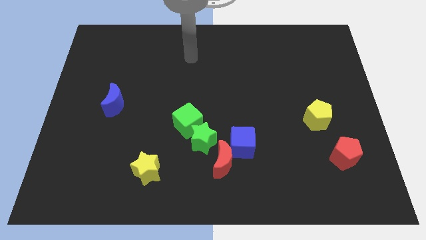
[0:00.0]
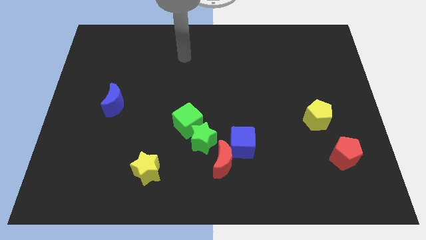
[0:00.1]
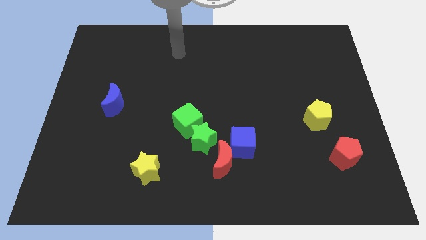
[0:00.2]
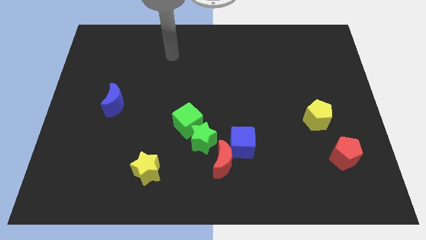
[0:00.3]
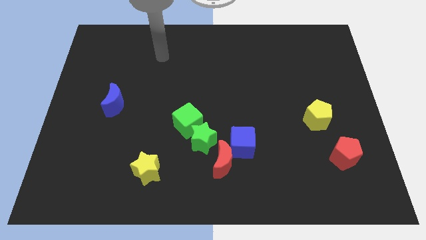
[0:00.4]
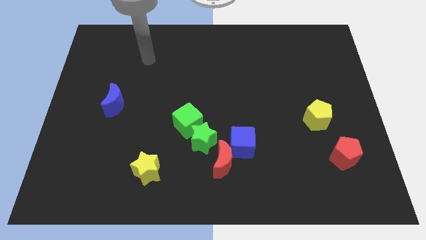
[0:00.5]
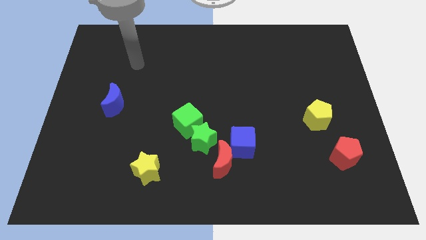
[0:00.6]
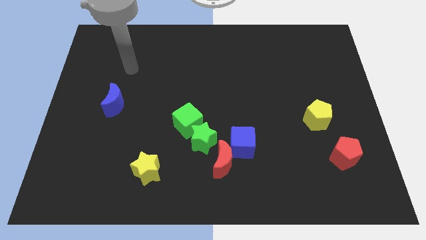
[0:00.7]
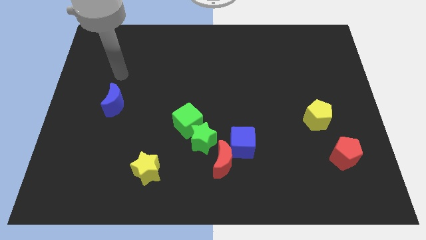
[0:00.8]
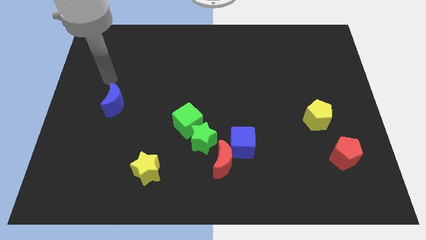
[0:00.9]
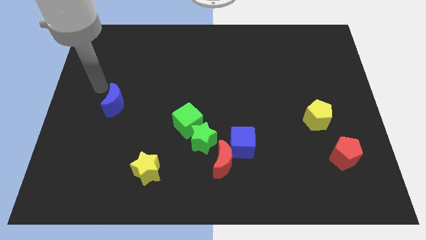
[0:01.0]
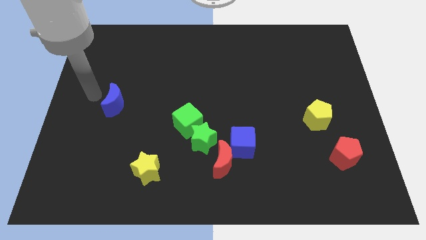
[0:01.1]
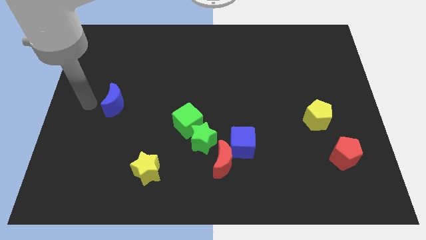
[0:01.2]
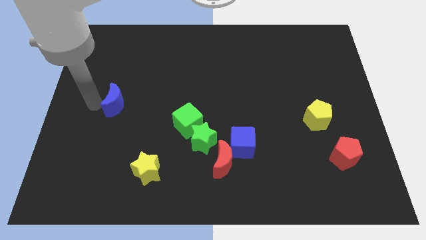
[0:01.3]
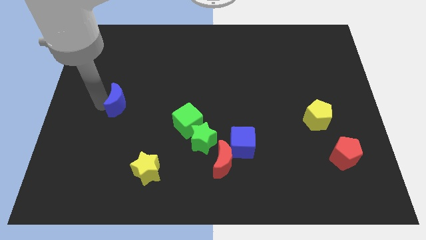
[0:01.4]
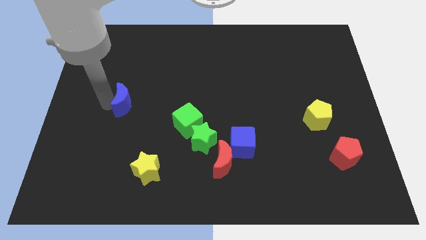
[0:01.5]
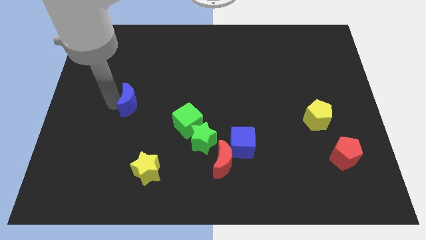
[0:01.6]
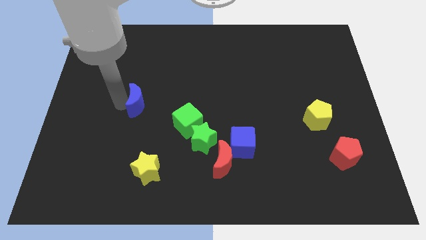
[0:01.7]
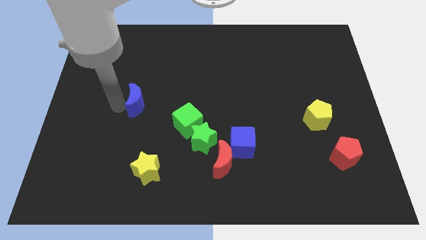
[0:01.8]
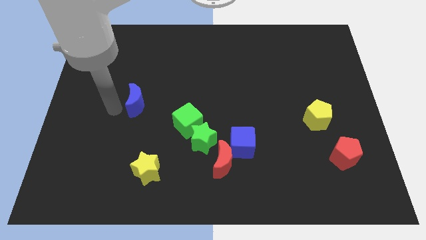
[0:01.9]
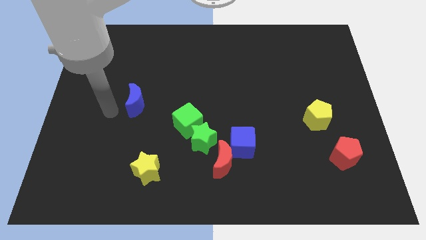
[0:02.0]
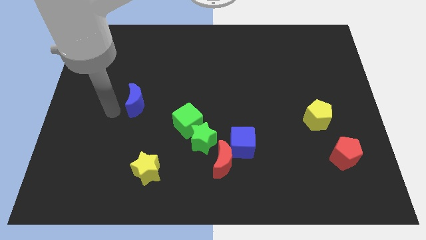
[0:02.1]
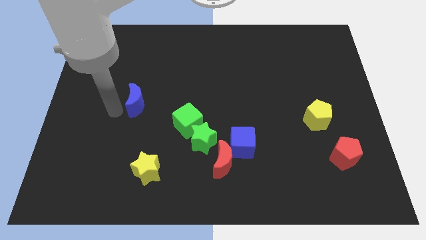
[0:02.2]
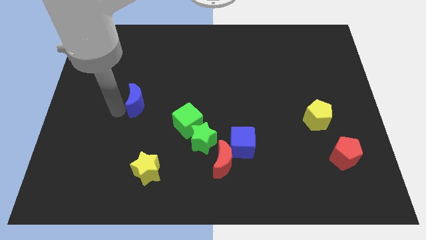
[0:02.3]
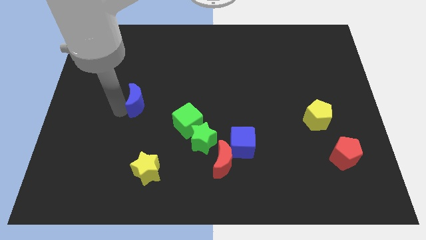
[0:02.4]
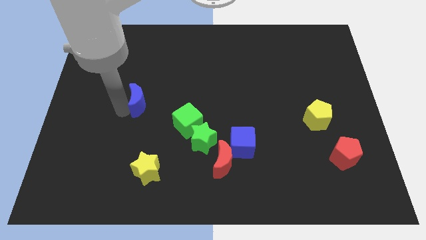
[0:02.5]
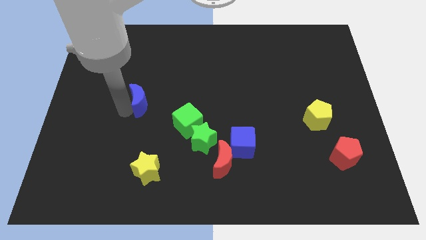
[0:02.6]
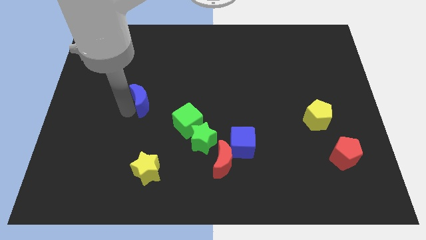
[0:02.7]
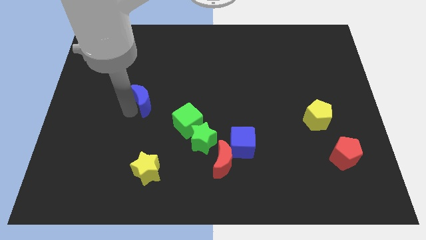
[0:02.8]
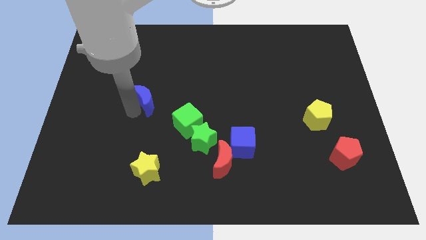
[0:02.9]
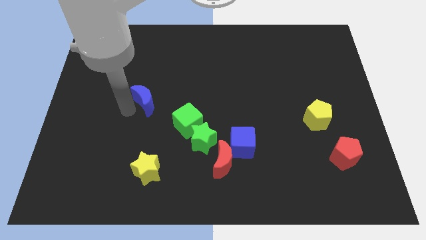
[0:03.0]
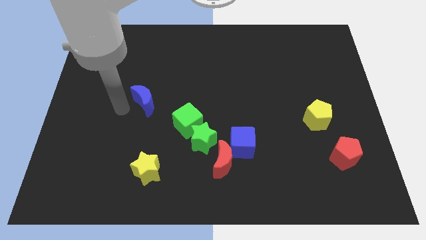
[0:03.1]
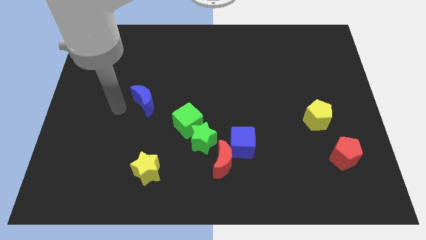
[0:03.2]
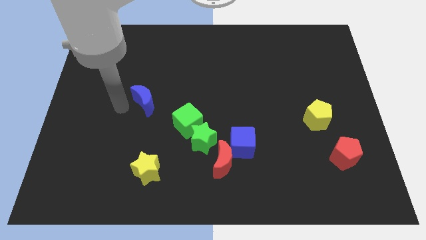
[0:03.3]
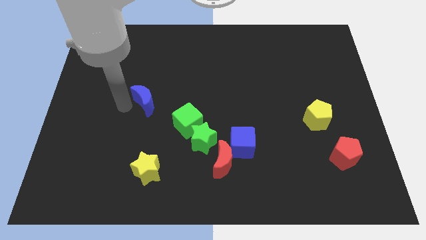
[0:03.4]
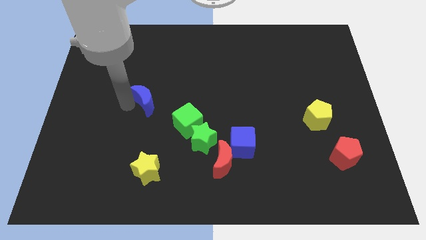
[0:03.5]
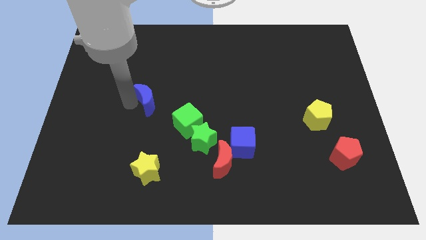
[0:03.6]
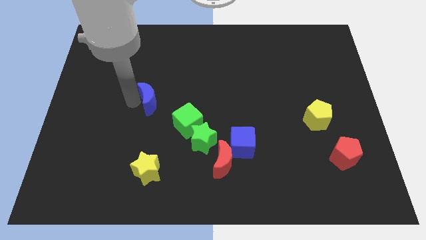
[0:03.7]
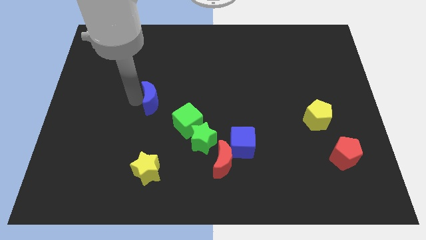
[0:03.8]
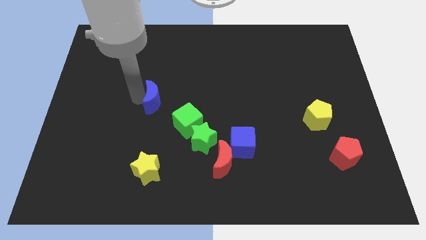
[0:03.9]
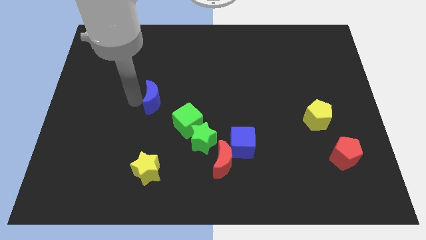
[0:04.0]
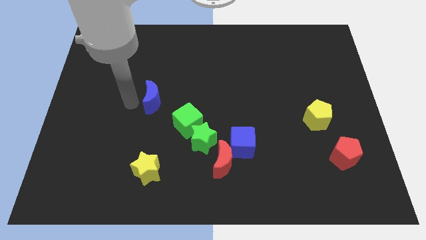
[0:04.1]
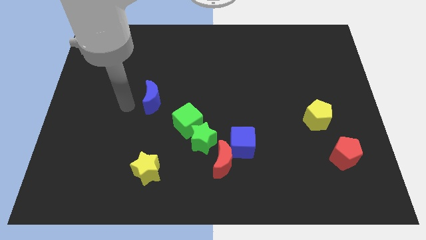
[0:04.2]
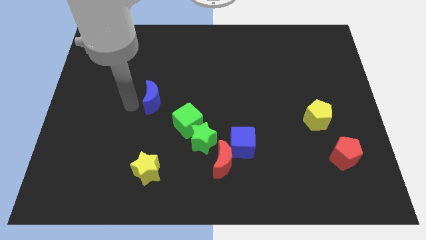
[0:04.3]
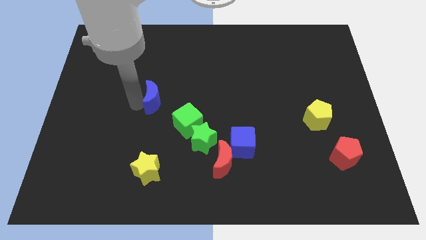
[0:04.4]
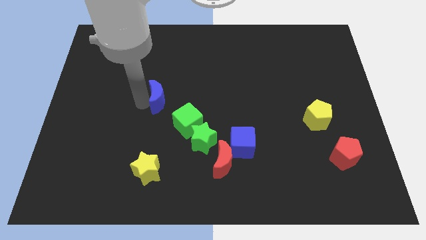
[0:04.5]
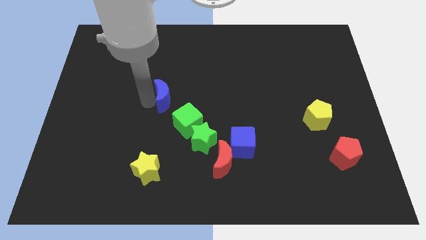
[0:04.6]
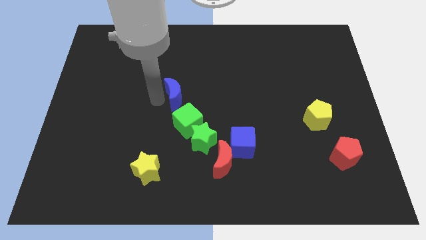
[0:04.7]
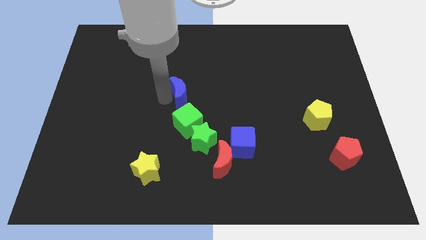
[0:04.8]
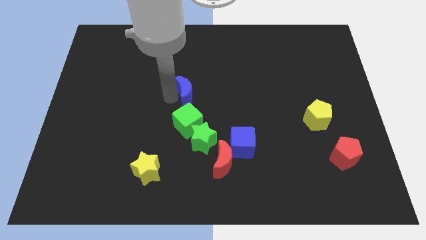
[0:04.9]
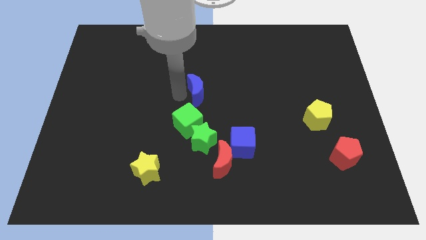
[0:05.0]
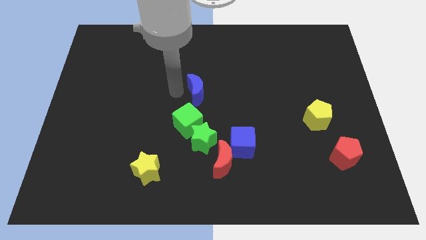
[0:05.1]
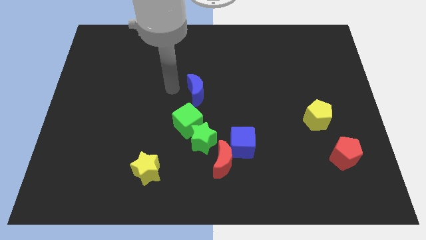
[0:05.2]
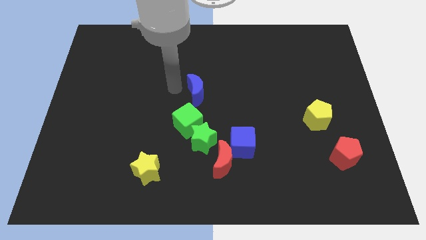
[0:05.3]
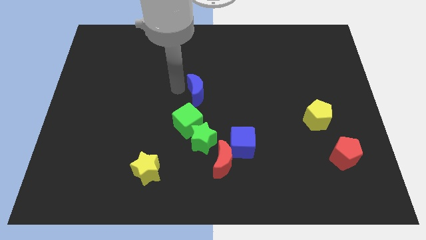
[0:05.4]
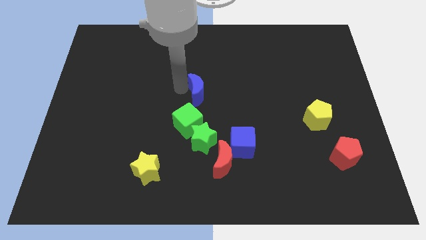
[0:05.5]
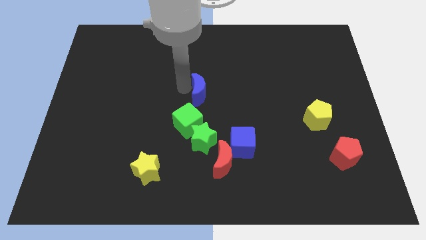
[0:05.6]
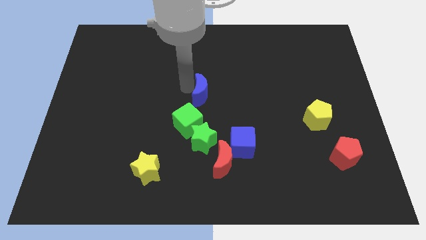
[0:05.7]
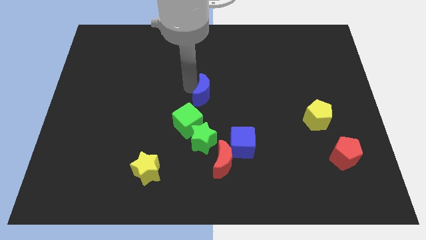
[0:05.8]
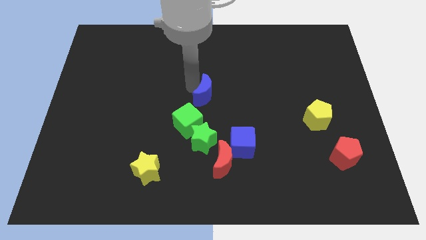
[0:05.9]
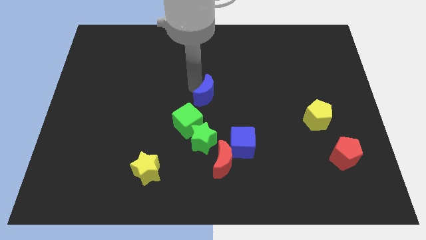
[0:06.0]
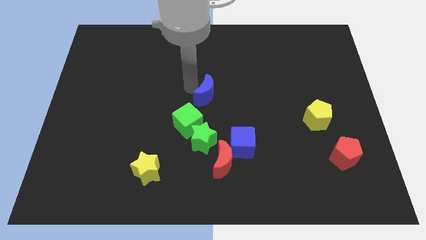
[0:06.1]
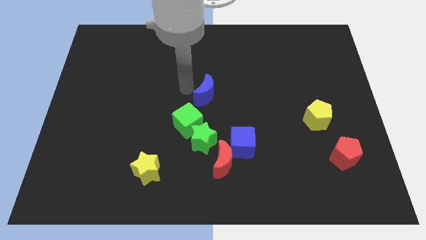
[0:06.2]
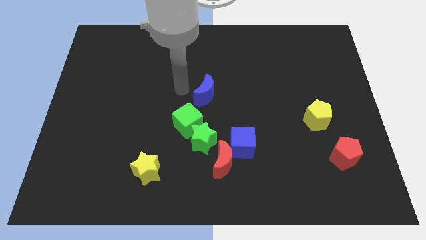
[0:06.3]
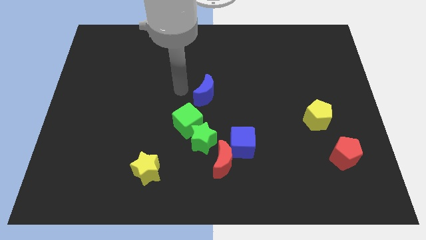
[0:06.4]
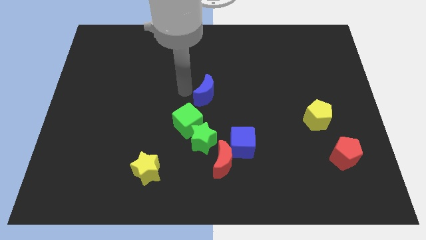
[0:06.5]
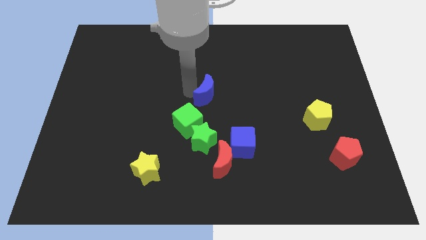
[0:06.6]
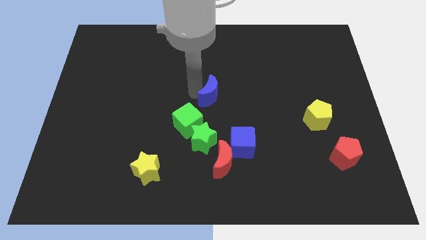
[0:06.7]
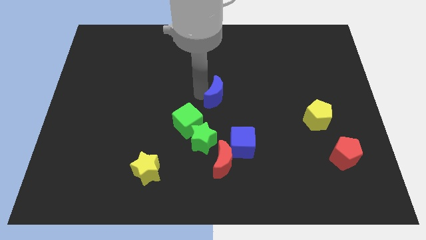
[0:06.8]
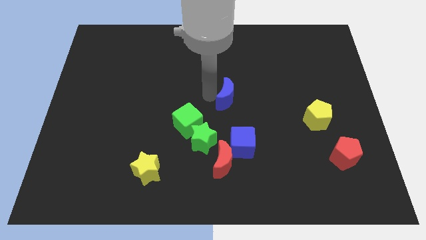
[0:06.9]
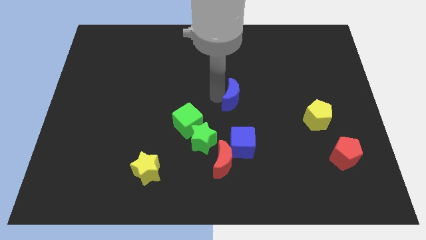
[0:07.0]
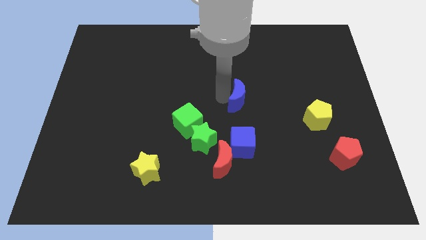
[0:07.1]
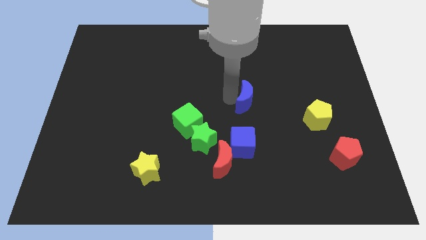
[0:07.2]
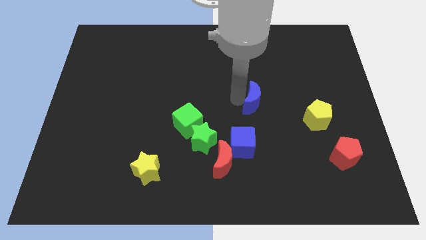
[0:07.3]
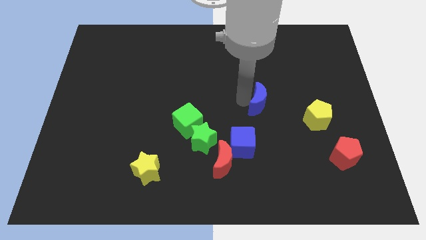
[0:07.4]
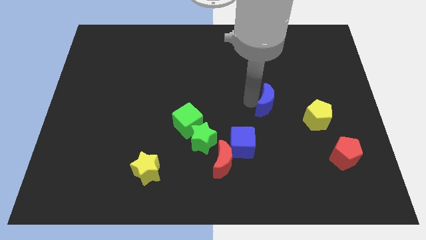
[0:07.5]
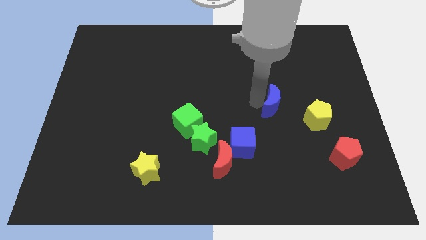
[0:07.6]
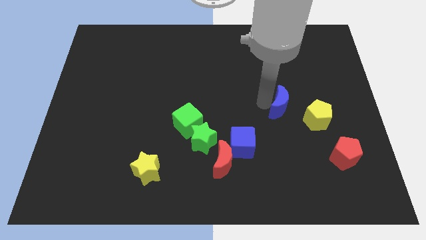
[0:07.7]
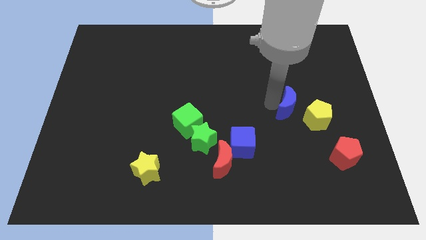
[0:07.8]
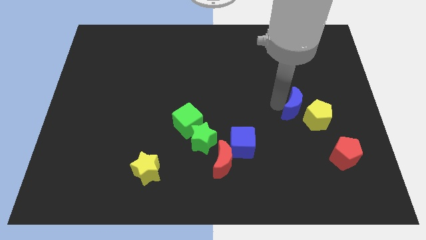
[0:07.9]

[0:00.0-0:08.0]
push the blue moon next to the yellow pentagon
